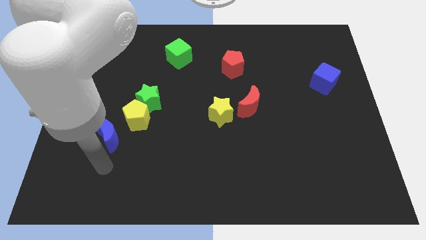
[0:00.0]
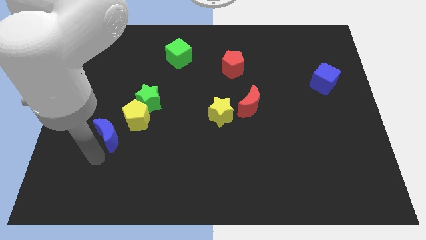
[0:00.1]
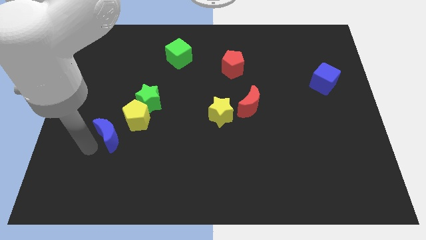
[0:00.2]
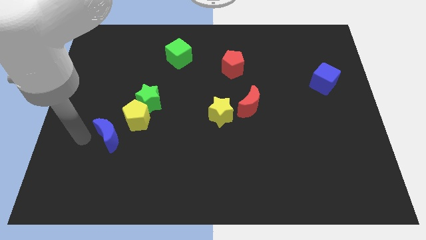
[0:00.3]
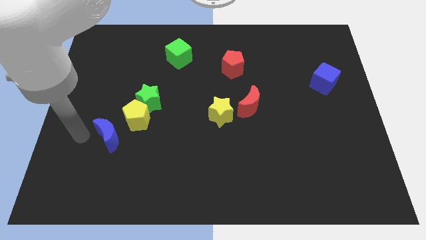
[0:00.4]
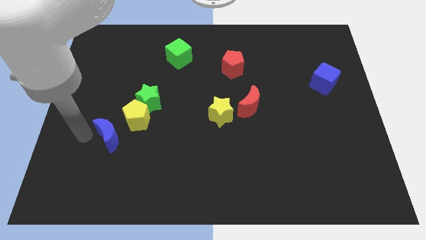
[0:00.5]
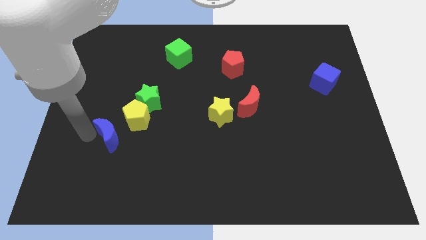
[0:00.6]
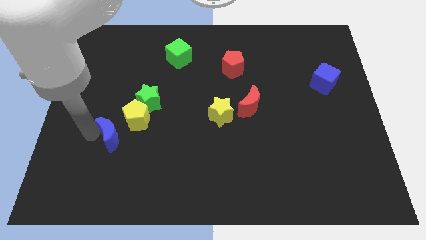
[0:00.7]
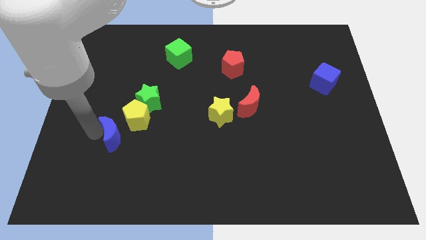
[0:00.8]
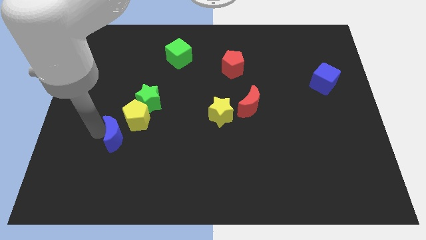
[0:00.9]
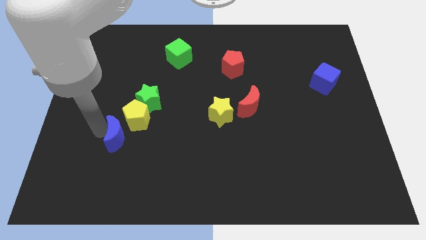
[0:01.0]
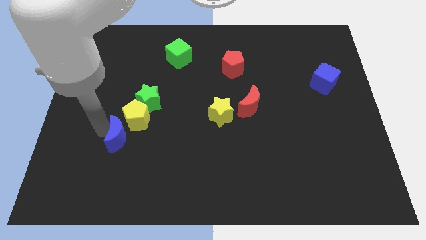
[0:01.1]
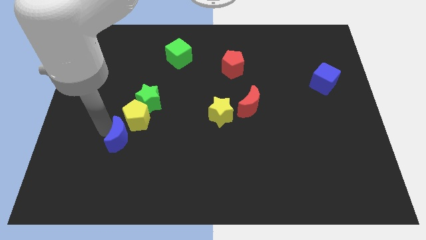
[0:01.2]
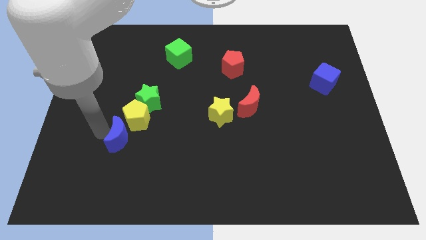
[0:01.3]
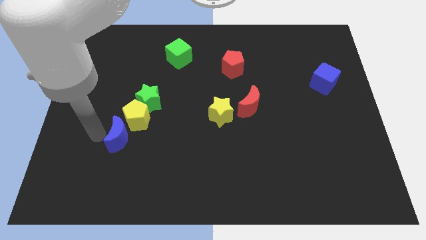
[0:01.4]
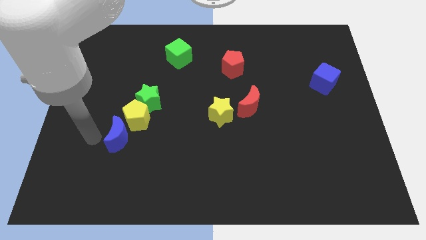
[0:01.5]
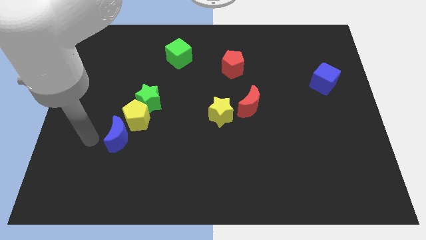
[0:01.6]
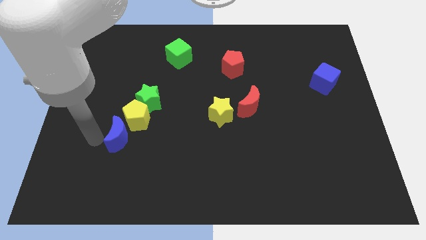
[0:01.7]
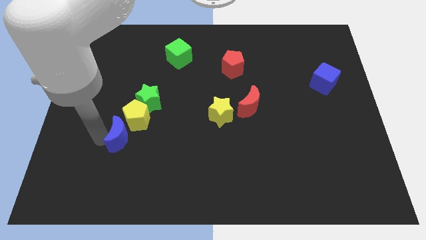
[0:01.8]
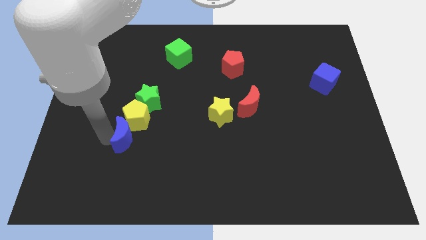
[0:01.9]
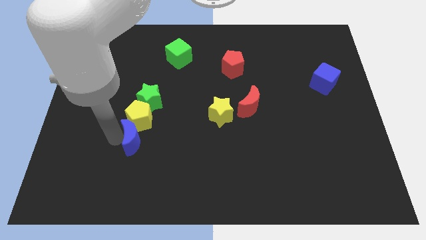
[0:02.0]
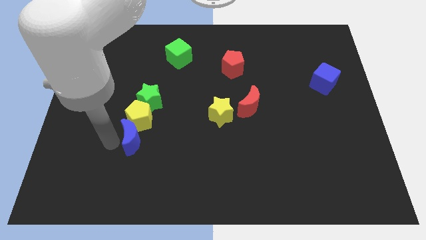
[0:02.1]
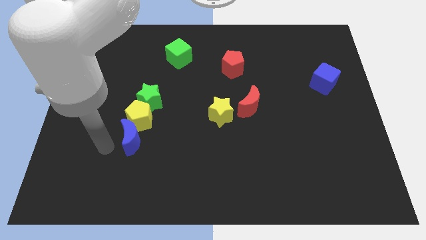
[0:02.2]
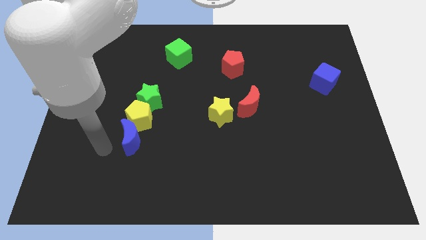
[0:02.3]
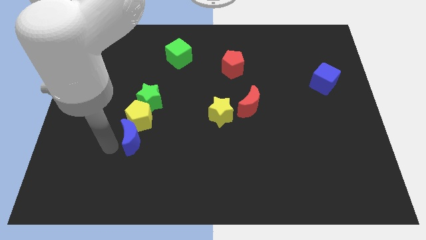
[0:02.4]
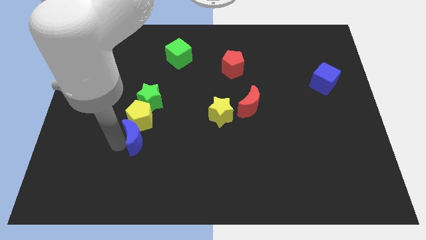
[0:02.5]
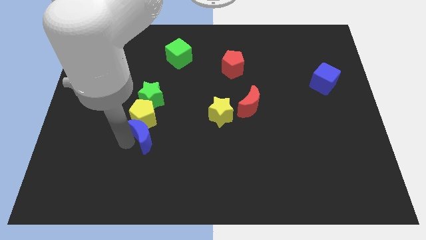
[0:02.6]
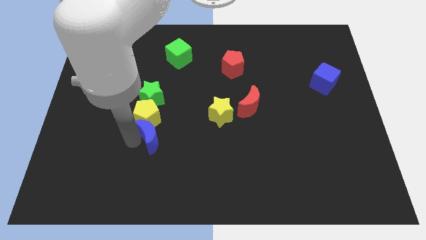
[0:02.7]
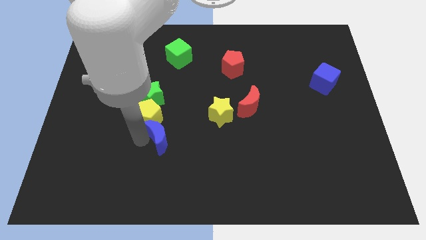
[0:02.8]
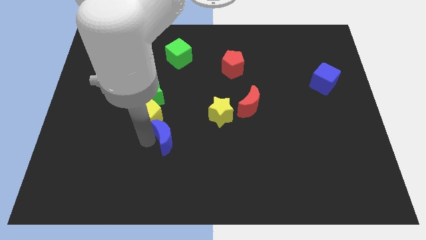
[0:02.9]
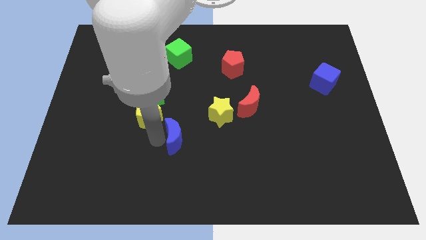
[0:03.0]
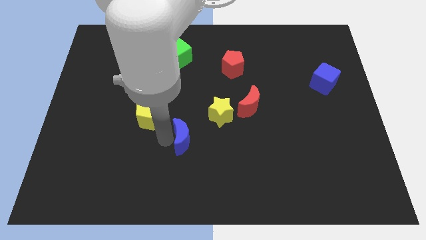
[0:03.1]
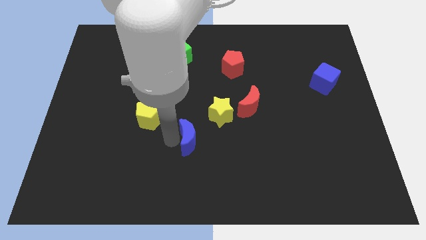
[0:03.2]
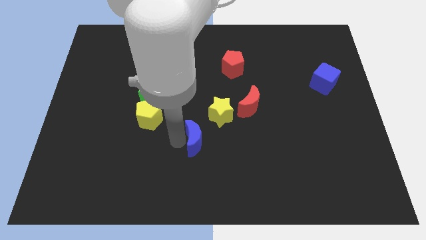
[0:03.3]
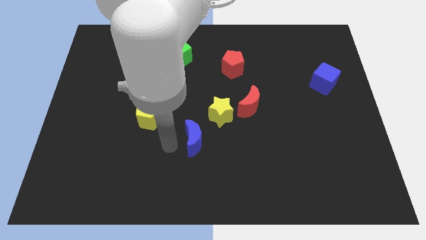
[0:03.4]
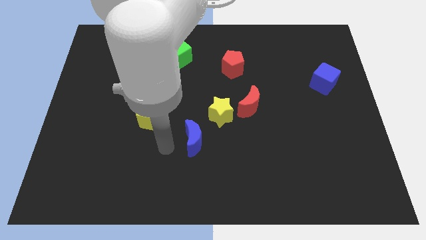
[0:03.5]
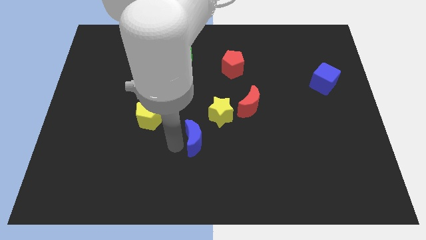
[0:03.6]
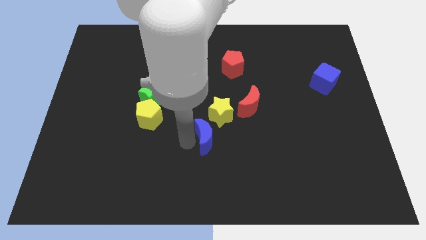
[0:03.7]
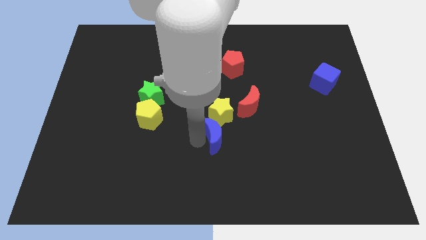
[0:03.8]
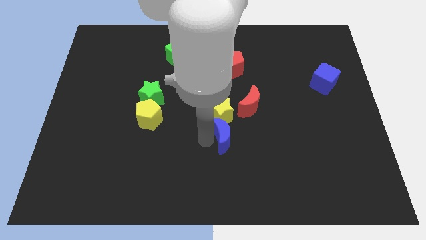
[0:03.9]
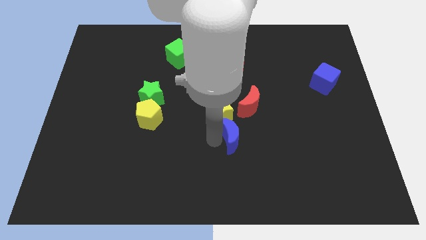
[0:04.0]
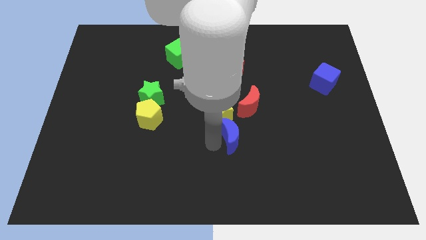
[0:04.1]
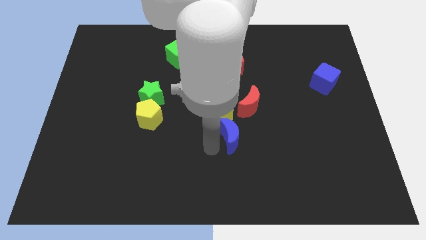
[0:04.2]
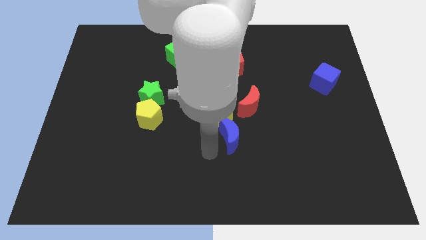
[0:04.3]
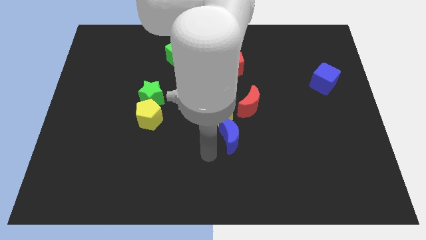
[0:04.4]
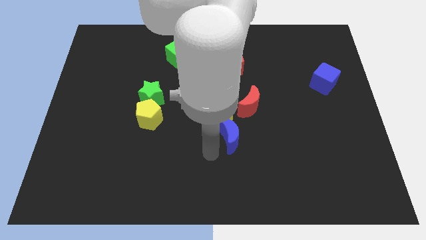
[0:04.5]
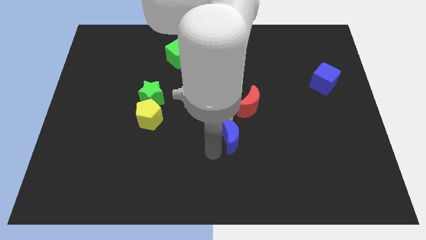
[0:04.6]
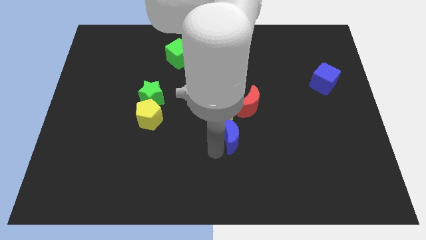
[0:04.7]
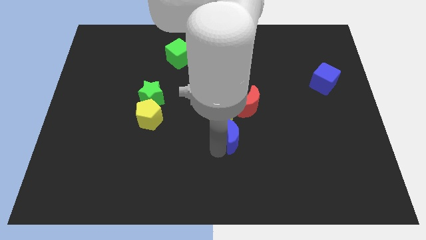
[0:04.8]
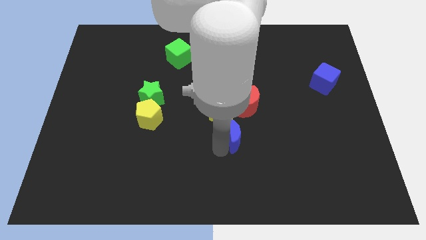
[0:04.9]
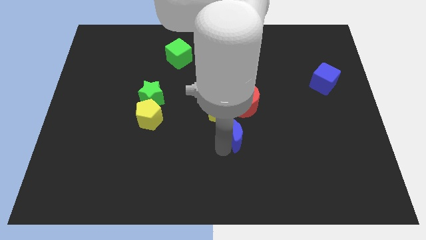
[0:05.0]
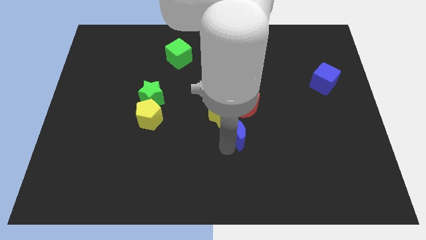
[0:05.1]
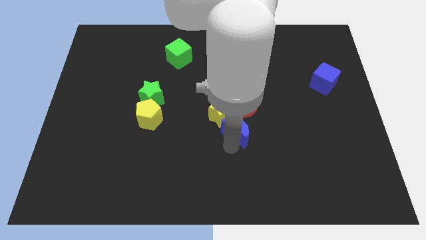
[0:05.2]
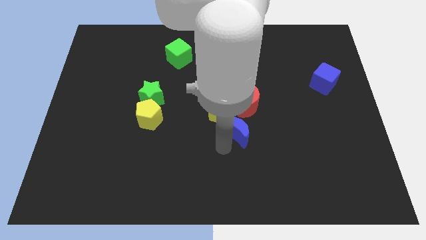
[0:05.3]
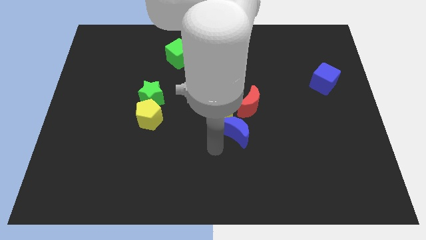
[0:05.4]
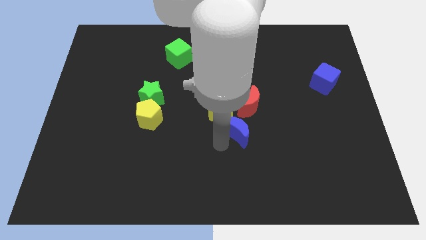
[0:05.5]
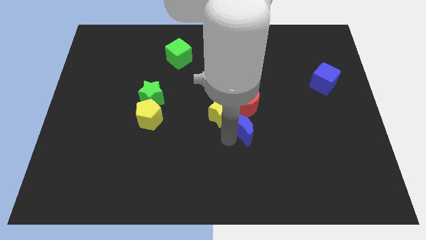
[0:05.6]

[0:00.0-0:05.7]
put the blue moon right of the yellow star

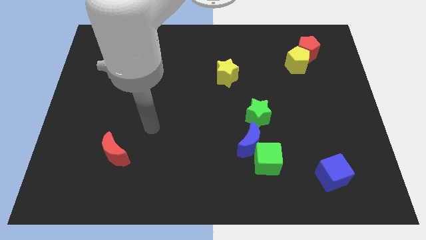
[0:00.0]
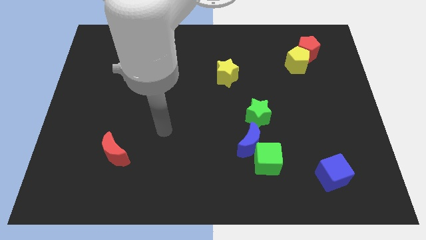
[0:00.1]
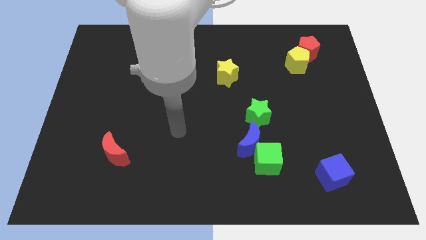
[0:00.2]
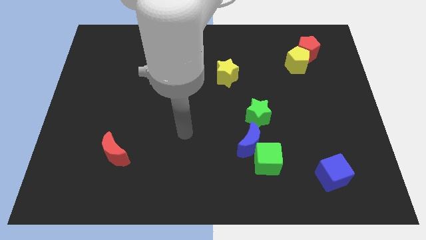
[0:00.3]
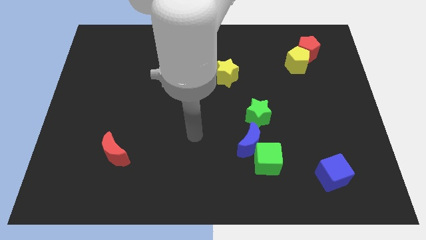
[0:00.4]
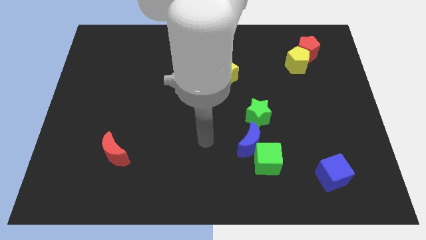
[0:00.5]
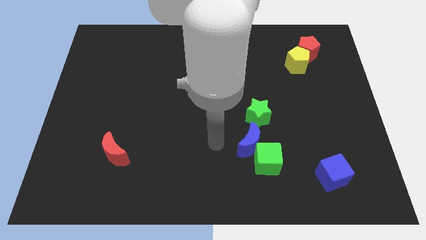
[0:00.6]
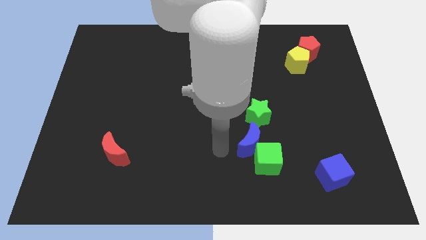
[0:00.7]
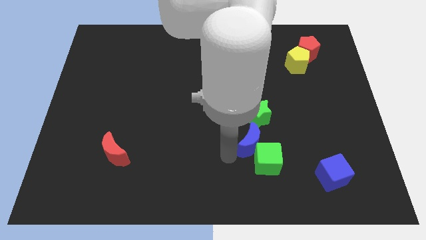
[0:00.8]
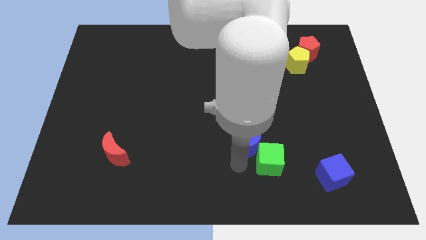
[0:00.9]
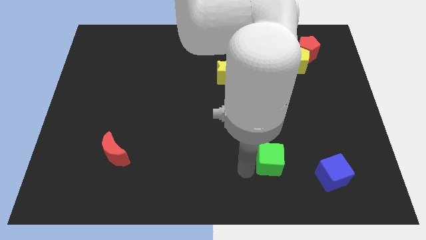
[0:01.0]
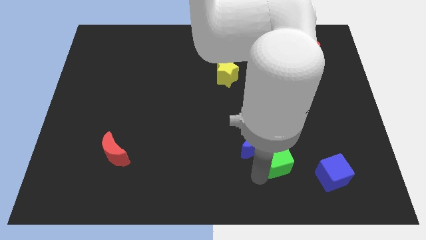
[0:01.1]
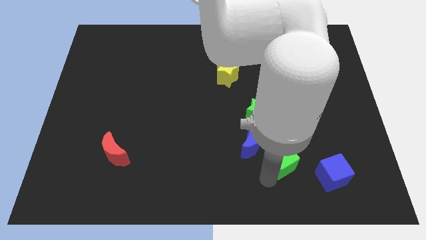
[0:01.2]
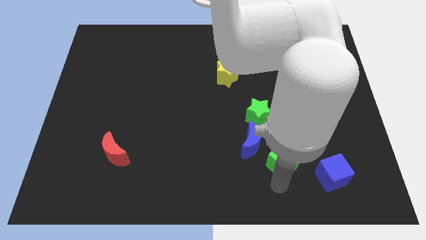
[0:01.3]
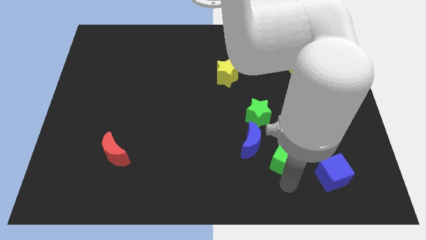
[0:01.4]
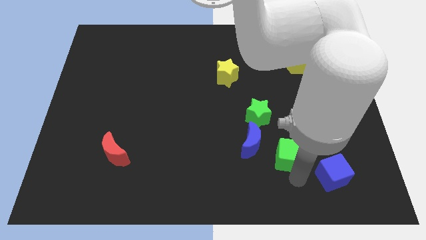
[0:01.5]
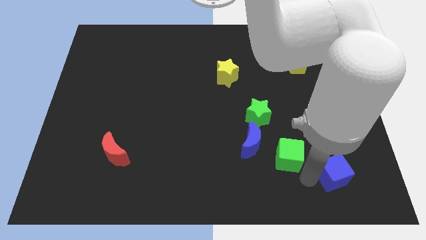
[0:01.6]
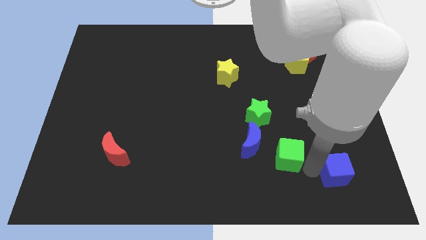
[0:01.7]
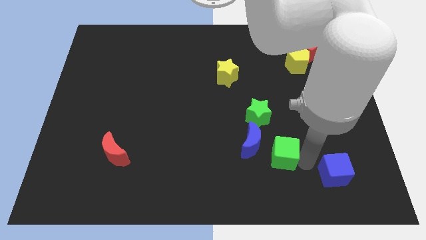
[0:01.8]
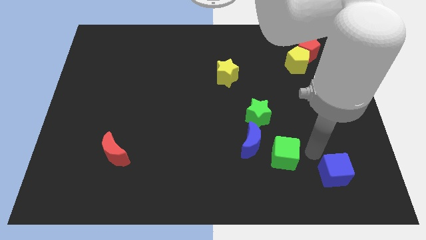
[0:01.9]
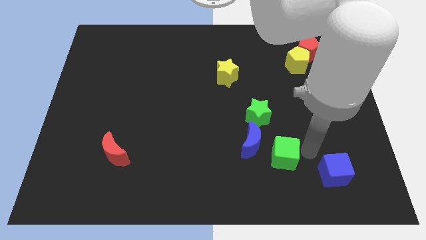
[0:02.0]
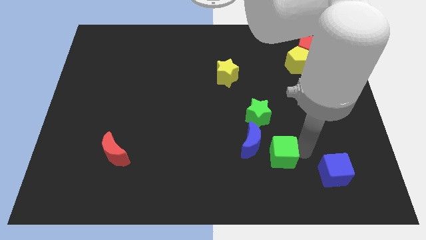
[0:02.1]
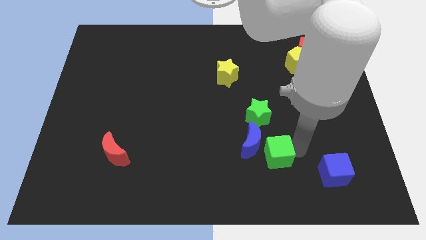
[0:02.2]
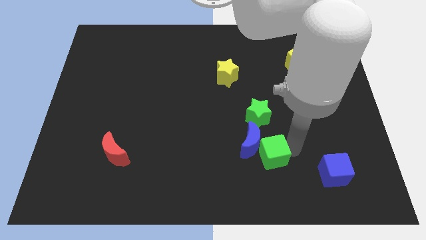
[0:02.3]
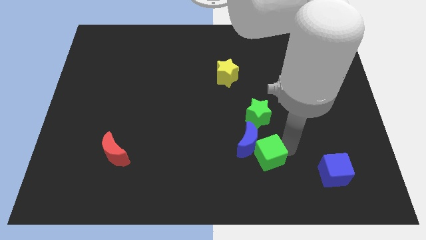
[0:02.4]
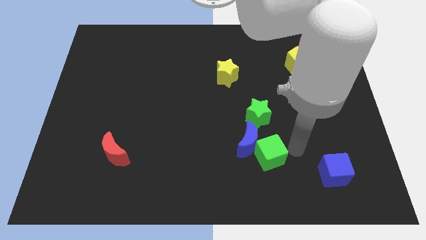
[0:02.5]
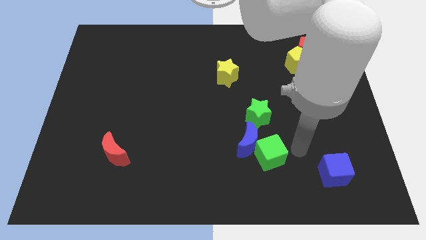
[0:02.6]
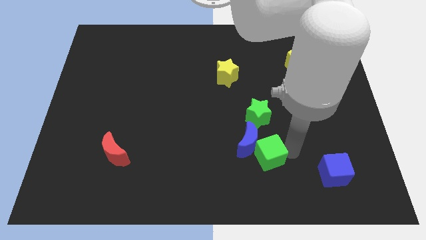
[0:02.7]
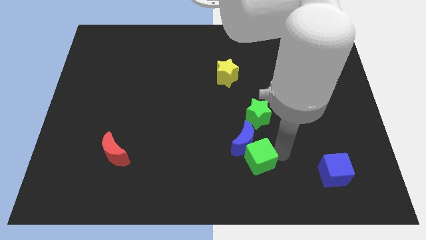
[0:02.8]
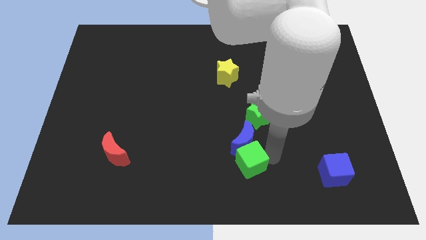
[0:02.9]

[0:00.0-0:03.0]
push the green cube to the bottom left of the blue moon
